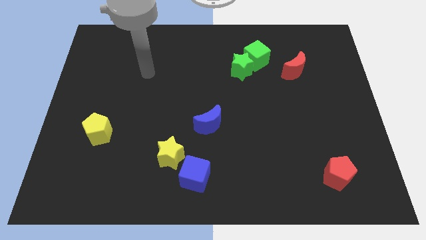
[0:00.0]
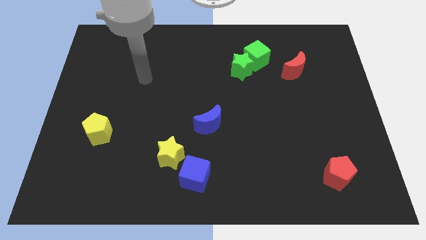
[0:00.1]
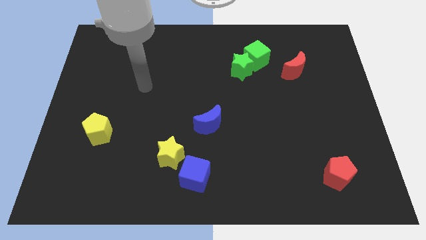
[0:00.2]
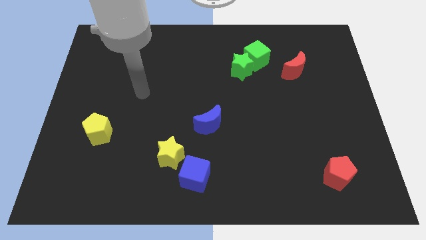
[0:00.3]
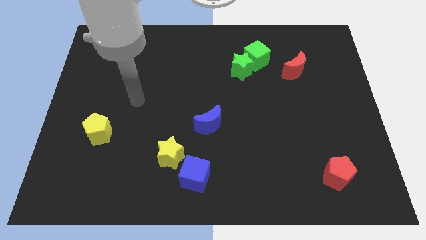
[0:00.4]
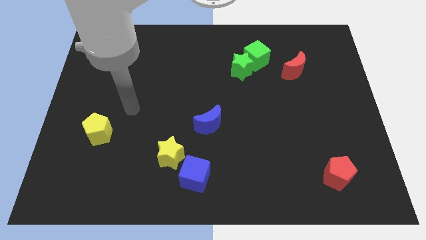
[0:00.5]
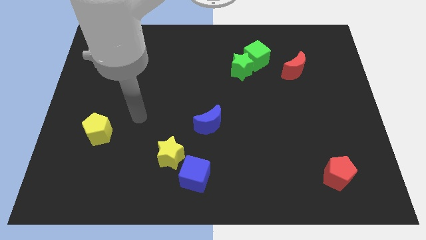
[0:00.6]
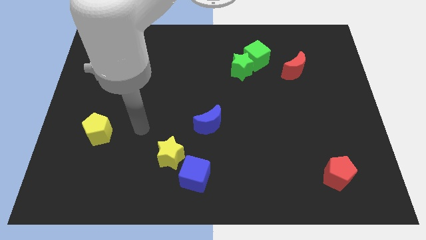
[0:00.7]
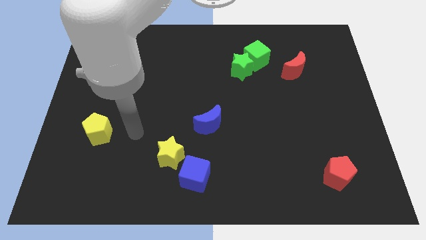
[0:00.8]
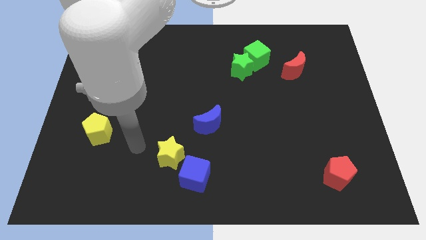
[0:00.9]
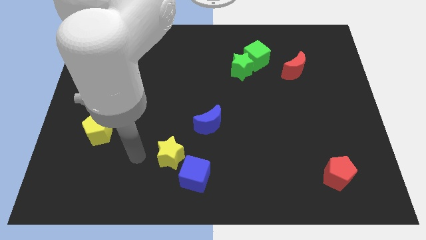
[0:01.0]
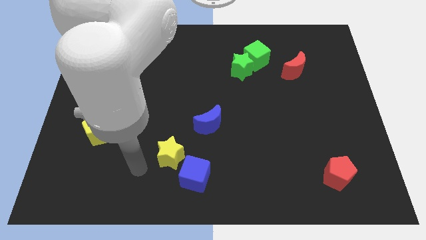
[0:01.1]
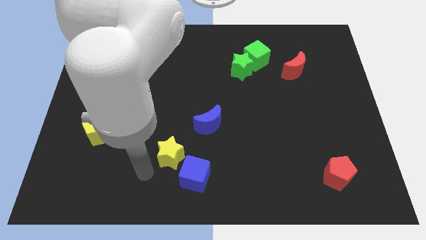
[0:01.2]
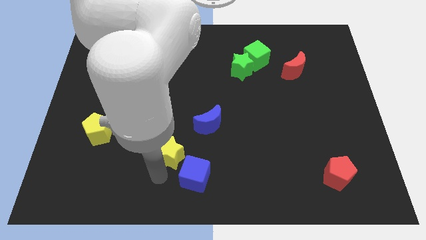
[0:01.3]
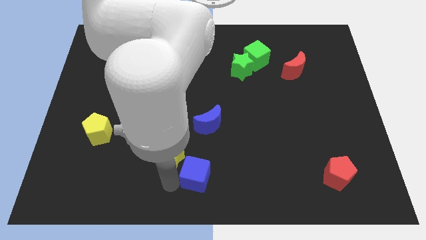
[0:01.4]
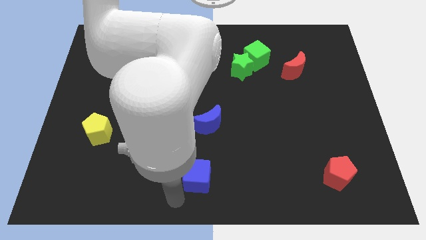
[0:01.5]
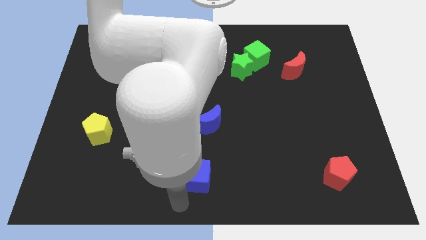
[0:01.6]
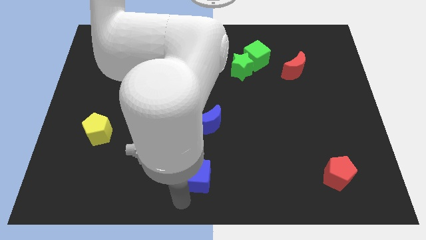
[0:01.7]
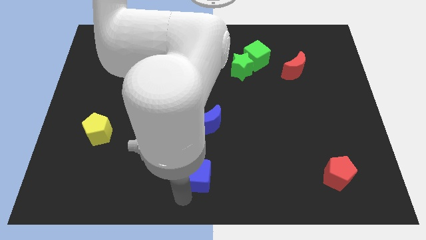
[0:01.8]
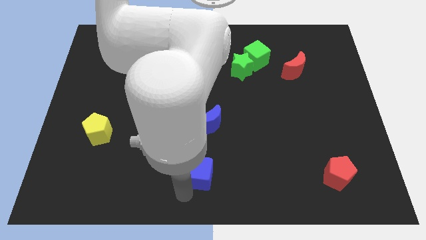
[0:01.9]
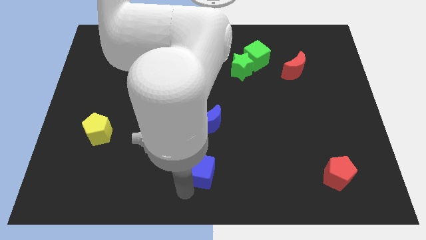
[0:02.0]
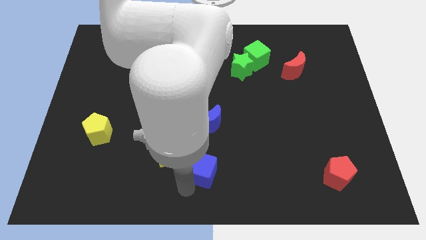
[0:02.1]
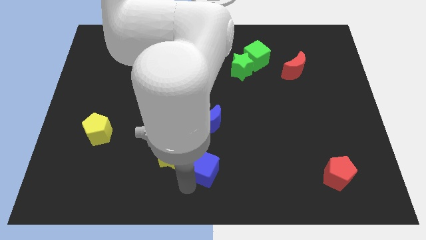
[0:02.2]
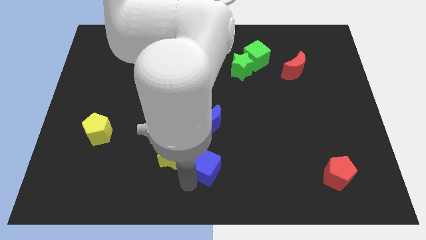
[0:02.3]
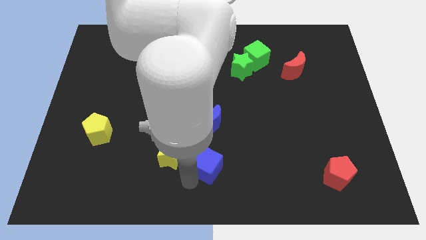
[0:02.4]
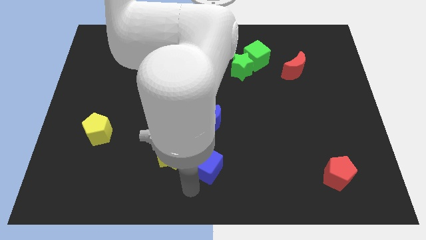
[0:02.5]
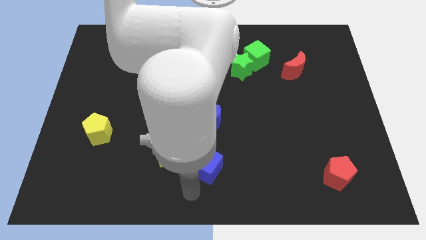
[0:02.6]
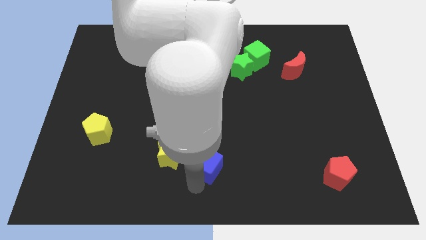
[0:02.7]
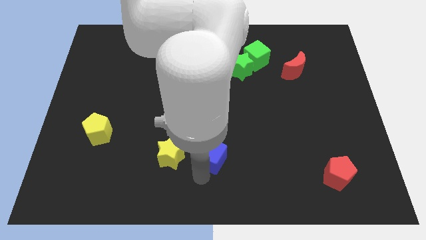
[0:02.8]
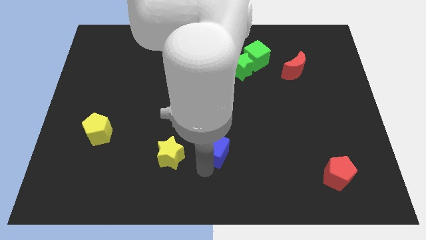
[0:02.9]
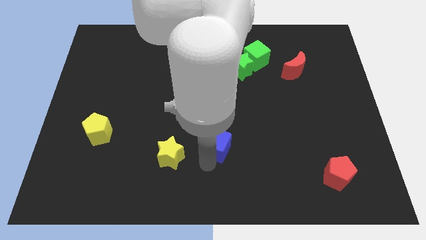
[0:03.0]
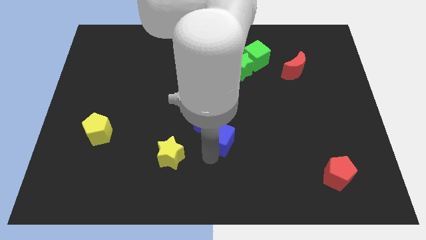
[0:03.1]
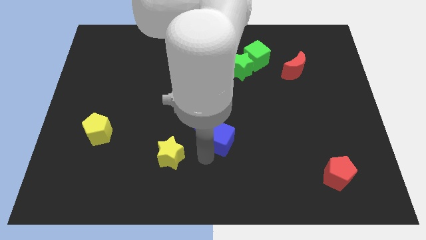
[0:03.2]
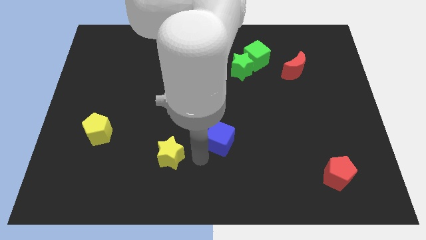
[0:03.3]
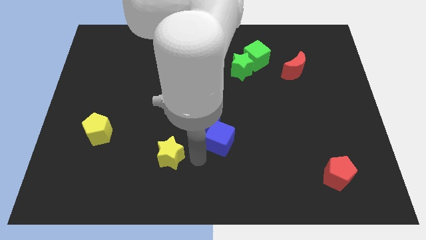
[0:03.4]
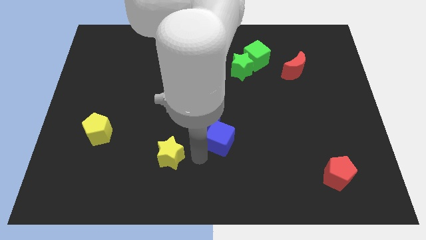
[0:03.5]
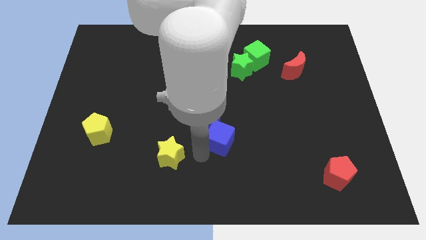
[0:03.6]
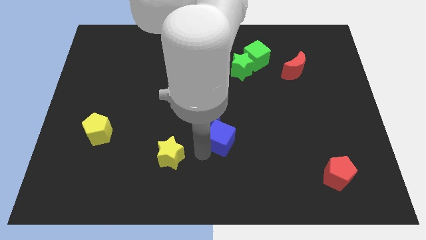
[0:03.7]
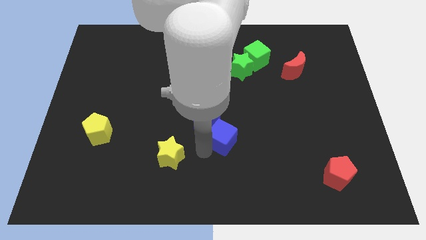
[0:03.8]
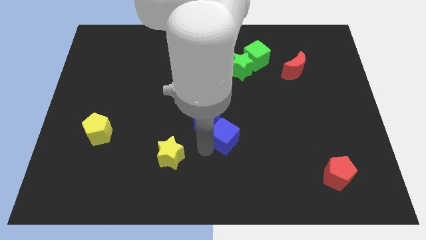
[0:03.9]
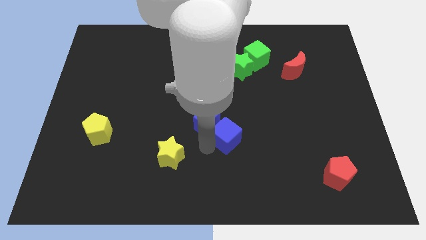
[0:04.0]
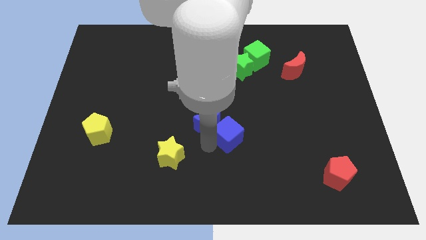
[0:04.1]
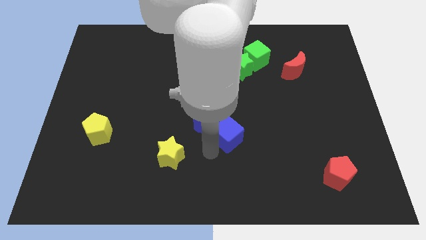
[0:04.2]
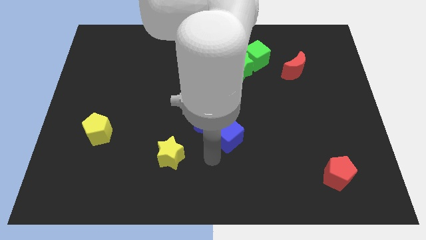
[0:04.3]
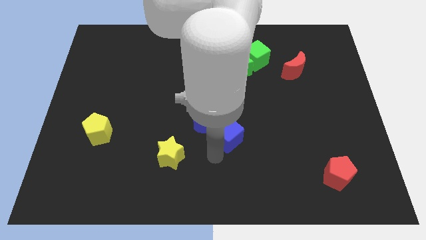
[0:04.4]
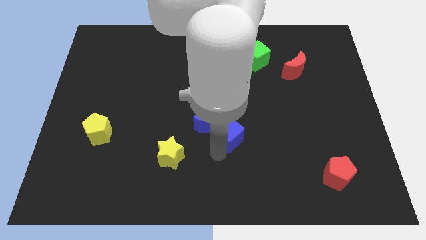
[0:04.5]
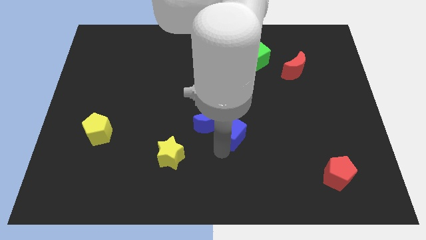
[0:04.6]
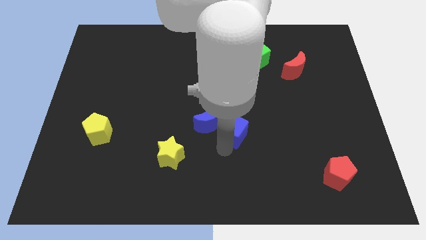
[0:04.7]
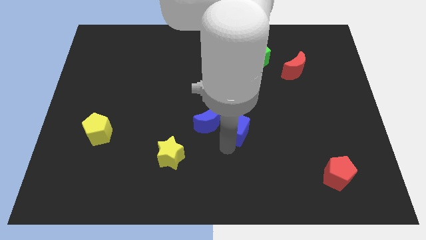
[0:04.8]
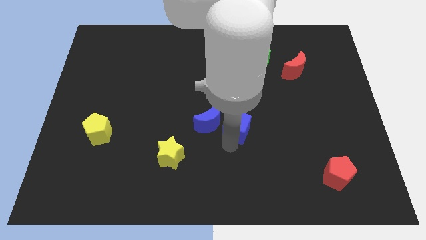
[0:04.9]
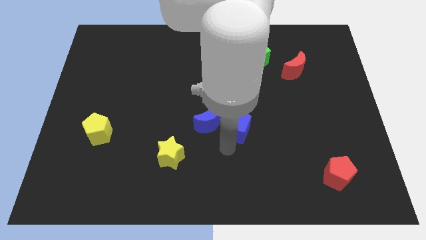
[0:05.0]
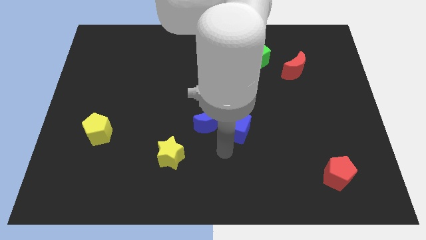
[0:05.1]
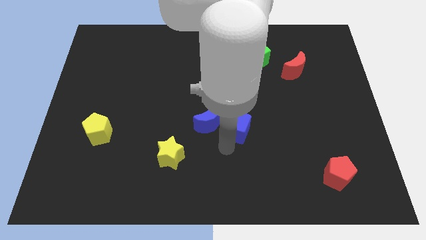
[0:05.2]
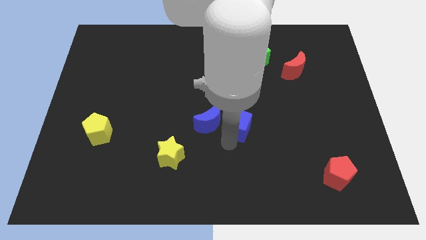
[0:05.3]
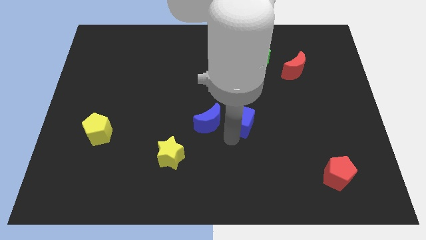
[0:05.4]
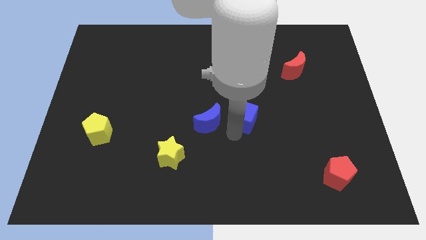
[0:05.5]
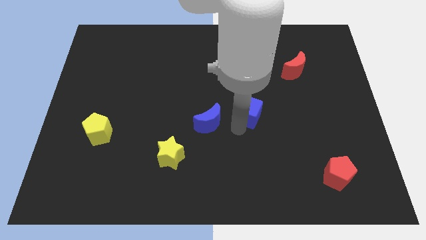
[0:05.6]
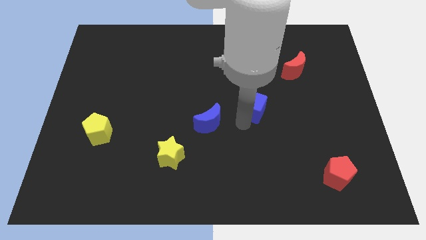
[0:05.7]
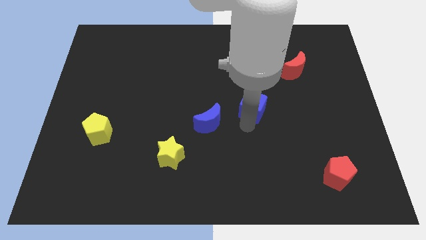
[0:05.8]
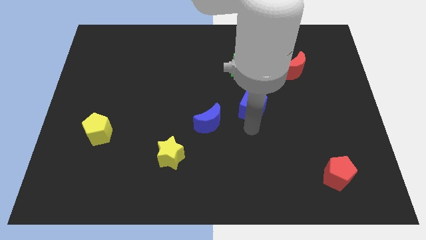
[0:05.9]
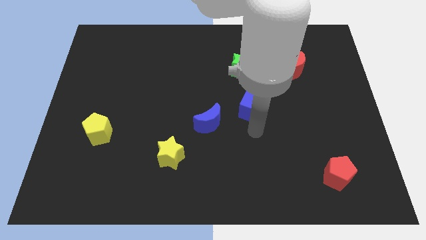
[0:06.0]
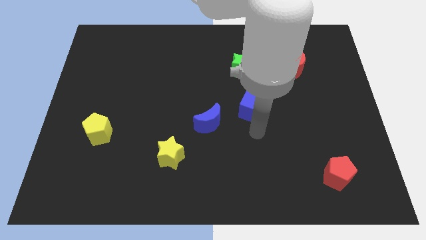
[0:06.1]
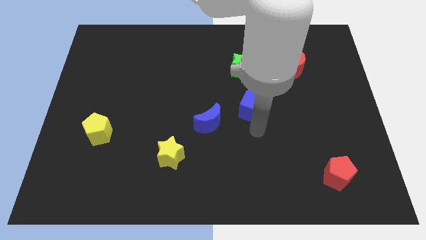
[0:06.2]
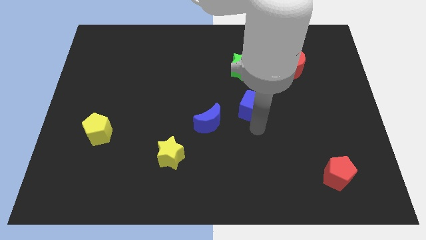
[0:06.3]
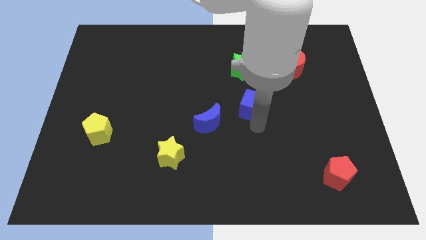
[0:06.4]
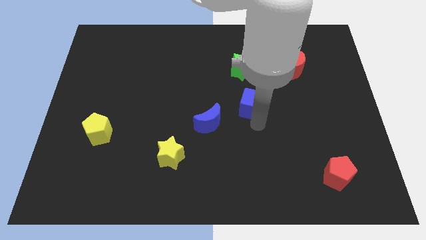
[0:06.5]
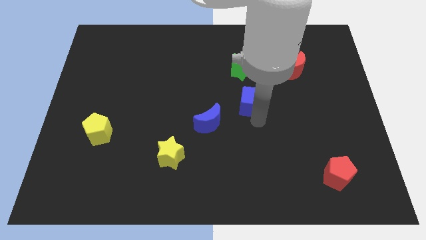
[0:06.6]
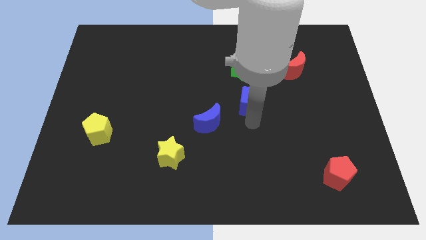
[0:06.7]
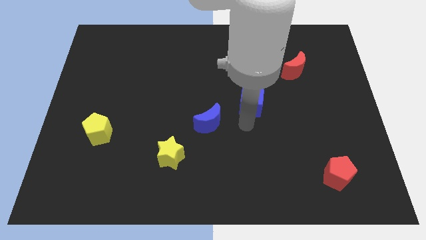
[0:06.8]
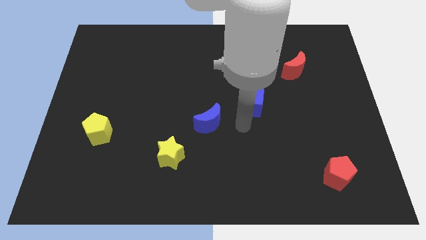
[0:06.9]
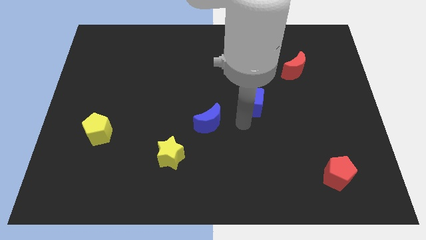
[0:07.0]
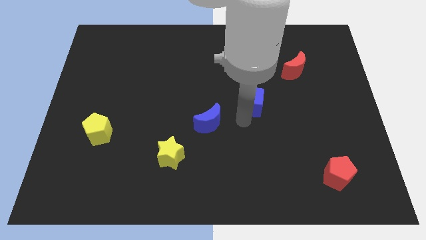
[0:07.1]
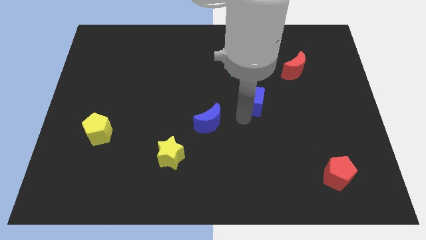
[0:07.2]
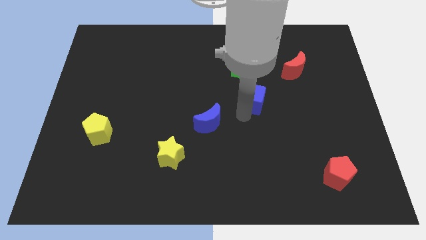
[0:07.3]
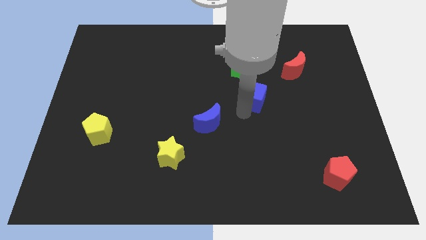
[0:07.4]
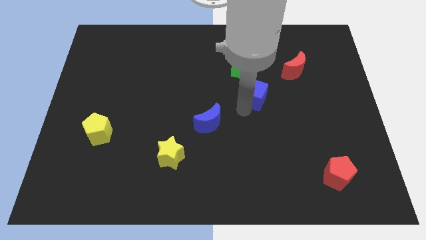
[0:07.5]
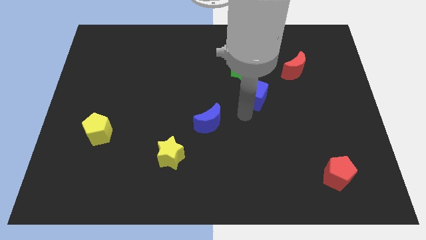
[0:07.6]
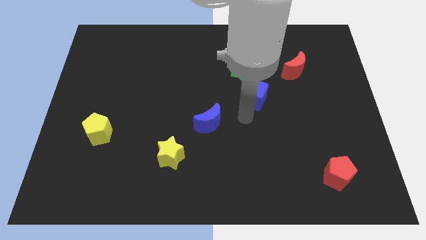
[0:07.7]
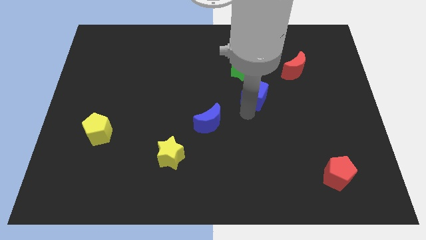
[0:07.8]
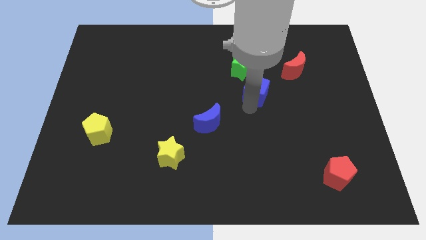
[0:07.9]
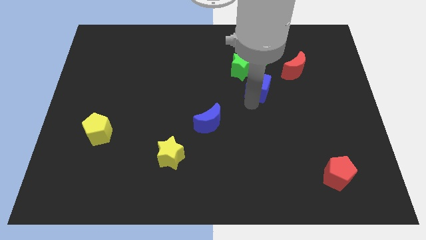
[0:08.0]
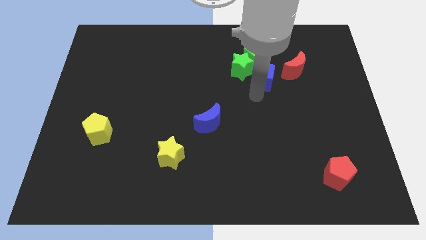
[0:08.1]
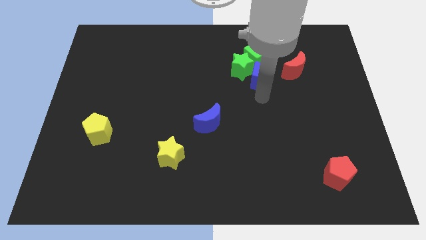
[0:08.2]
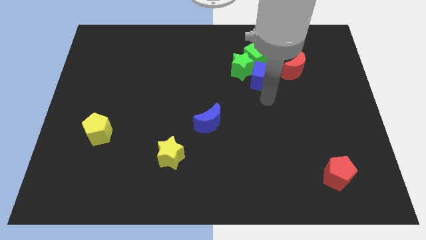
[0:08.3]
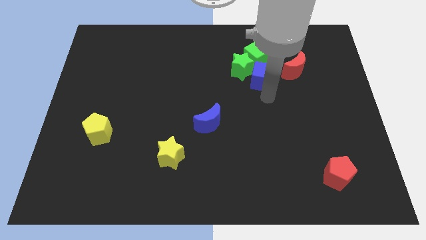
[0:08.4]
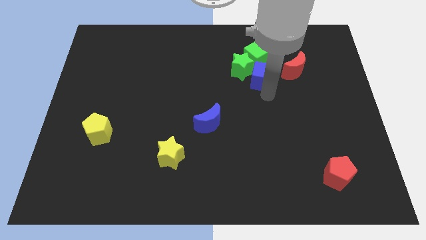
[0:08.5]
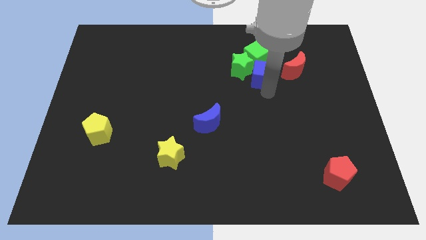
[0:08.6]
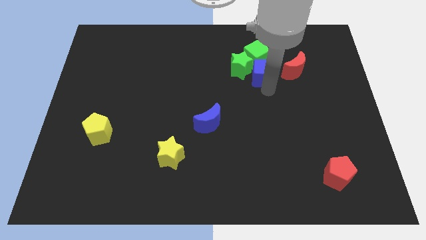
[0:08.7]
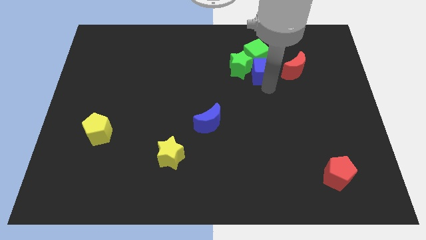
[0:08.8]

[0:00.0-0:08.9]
move the blue cube next to the green cube
